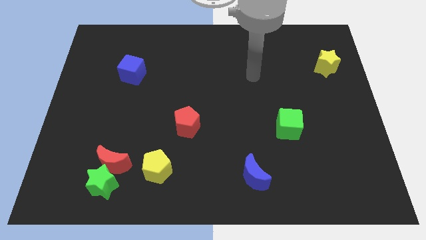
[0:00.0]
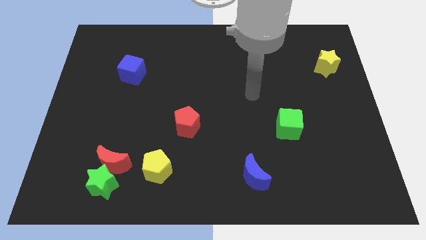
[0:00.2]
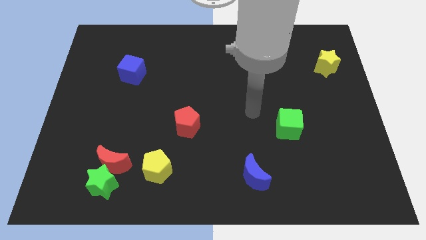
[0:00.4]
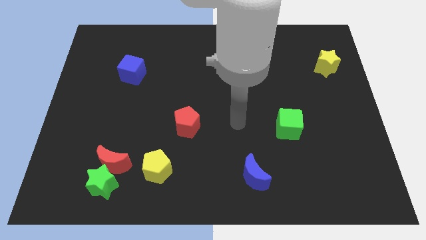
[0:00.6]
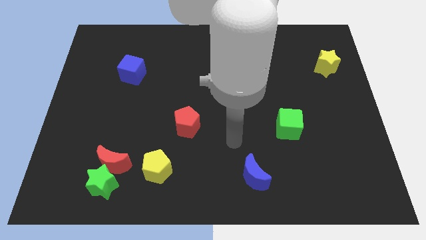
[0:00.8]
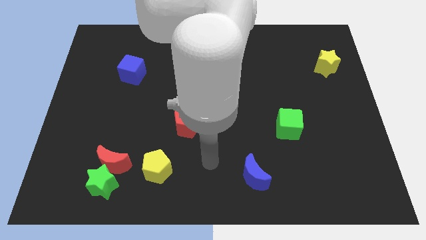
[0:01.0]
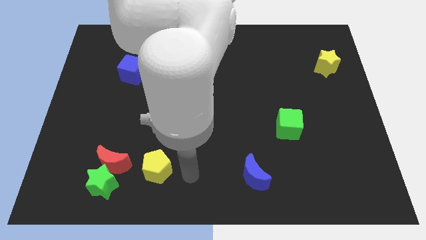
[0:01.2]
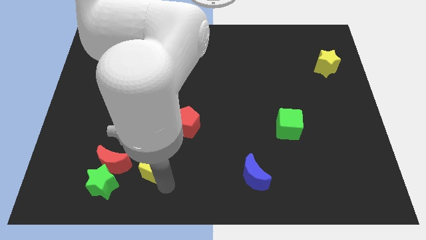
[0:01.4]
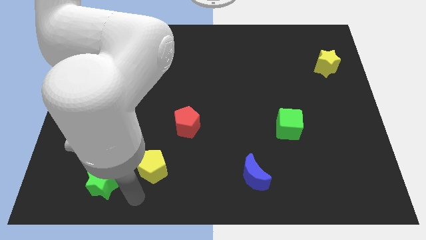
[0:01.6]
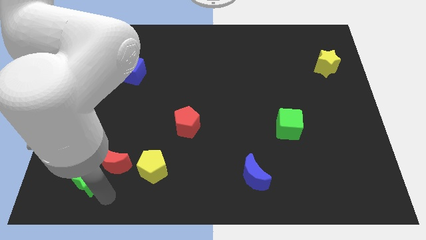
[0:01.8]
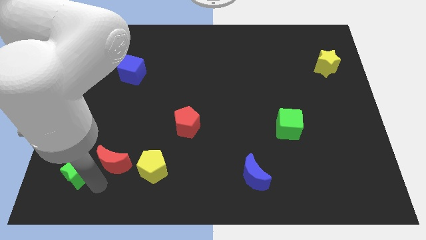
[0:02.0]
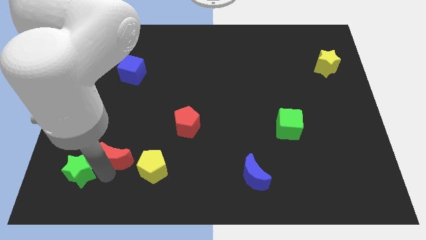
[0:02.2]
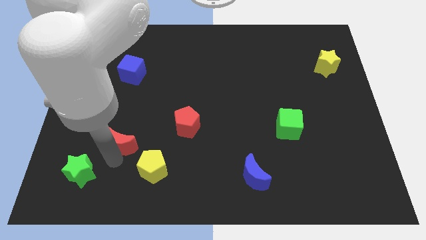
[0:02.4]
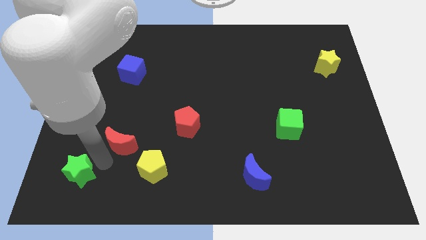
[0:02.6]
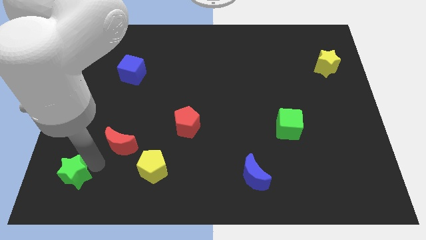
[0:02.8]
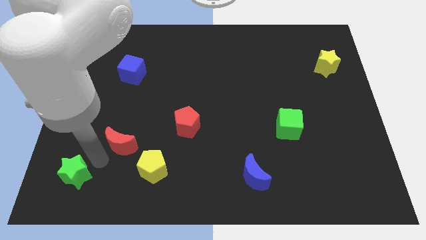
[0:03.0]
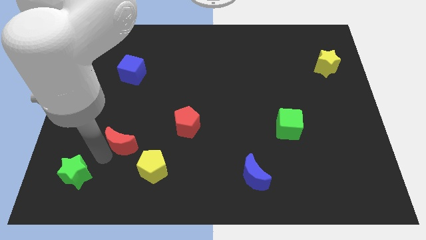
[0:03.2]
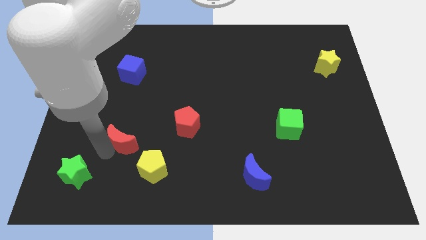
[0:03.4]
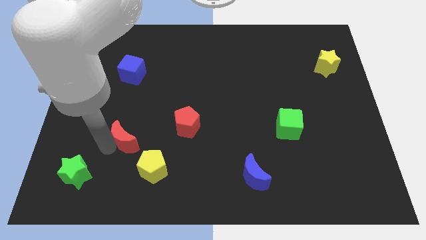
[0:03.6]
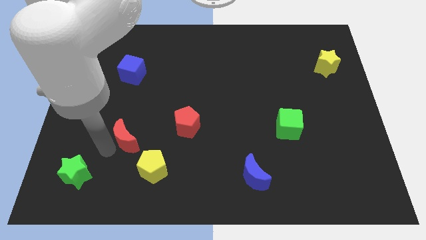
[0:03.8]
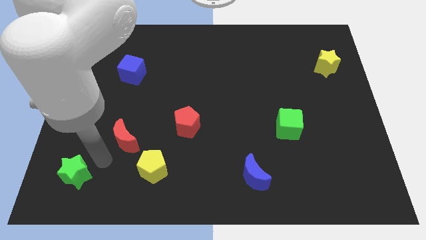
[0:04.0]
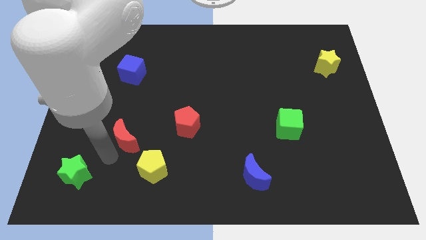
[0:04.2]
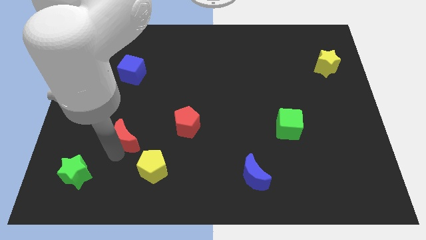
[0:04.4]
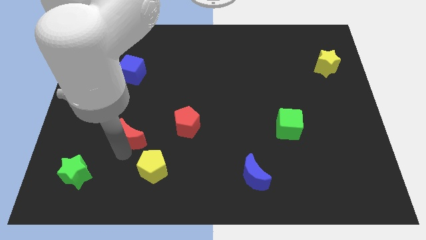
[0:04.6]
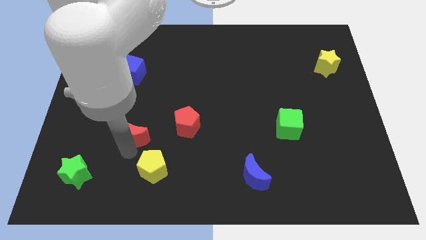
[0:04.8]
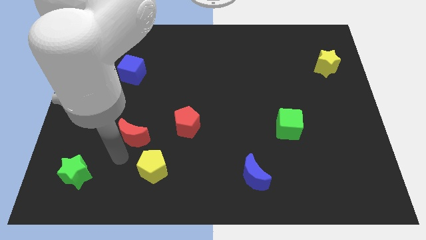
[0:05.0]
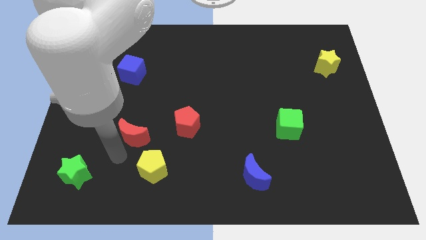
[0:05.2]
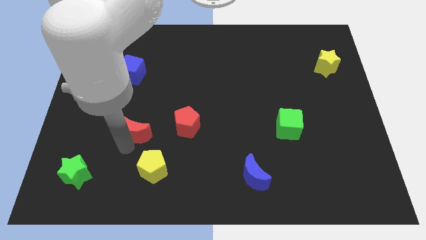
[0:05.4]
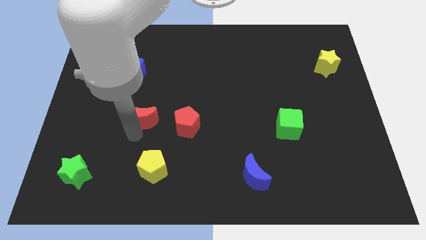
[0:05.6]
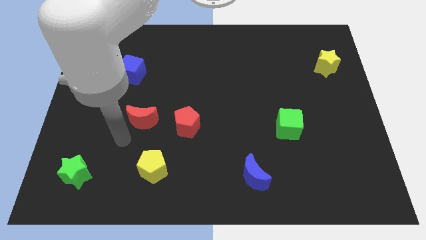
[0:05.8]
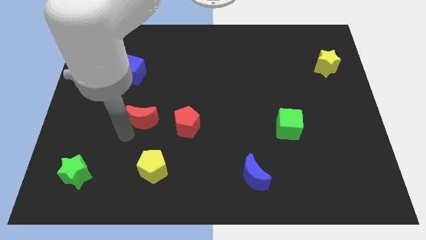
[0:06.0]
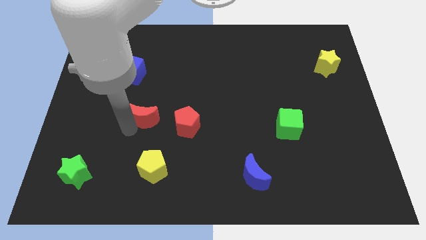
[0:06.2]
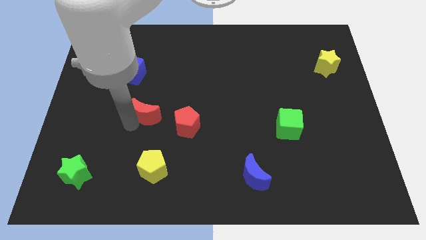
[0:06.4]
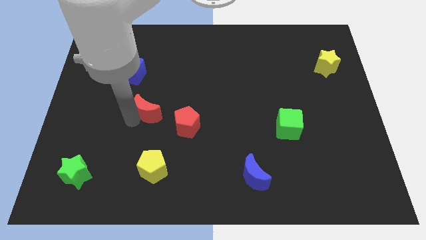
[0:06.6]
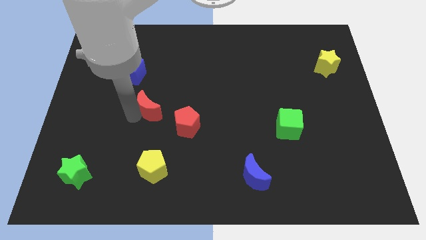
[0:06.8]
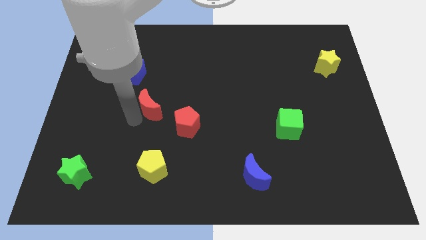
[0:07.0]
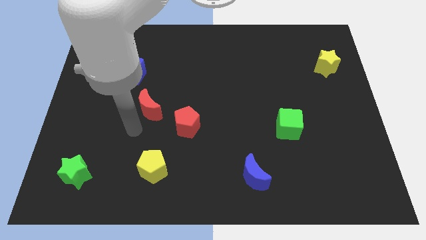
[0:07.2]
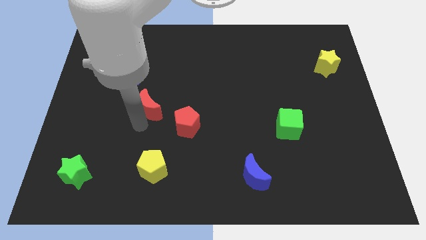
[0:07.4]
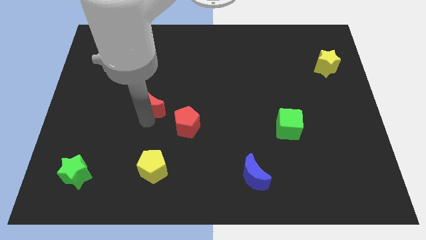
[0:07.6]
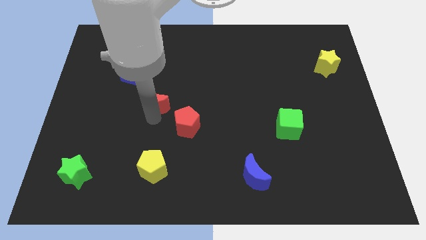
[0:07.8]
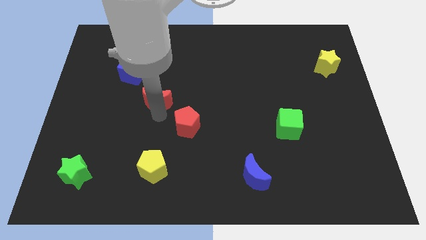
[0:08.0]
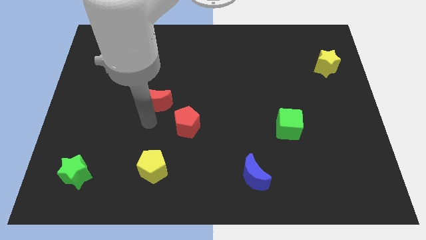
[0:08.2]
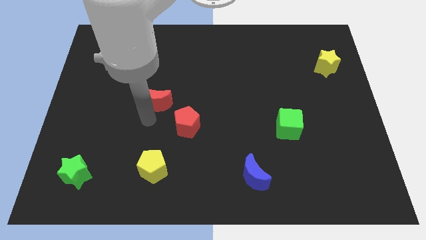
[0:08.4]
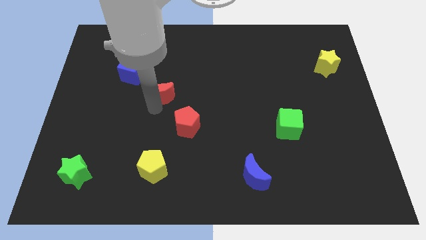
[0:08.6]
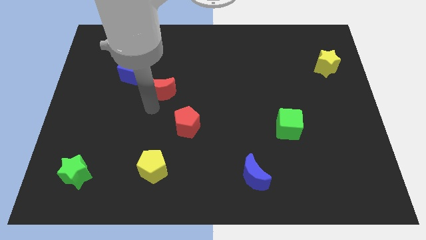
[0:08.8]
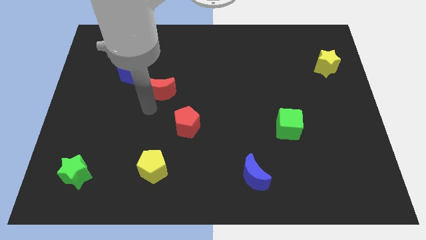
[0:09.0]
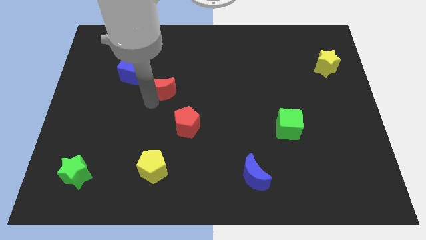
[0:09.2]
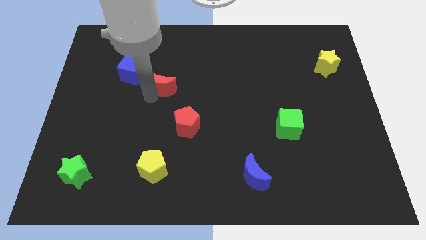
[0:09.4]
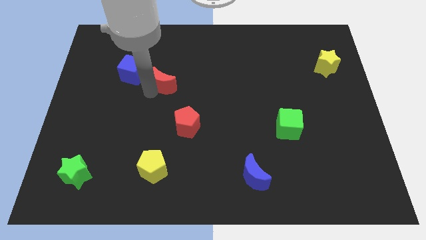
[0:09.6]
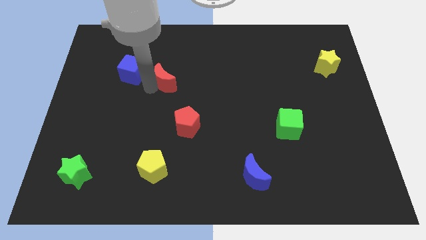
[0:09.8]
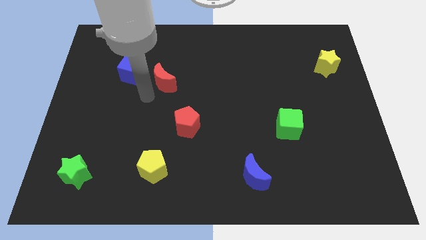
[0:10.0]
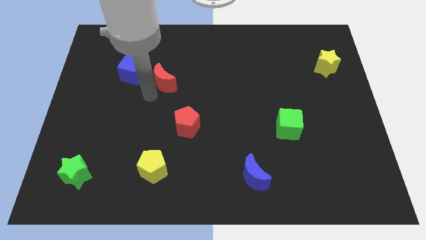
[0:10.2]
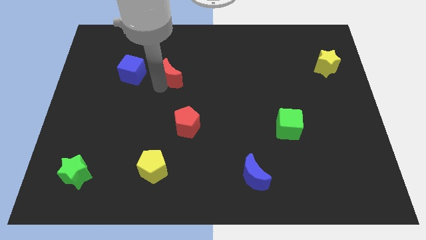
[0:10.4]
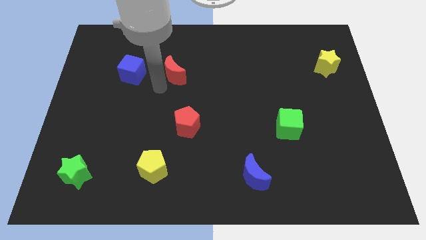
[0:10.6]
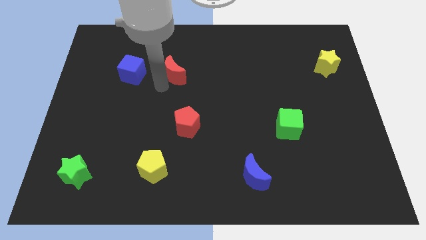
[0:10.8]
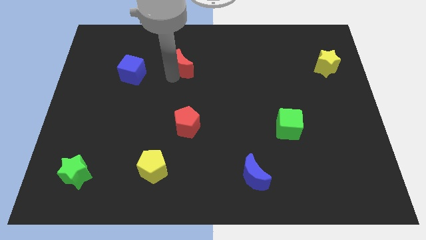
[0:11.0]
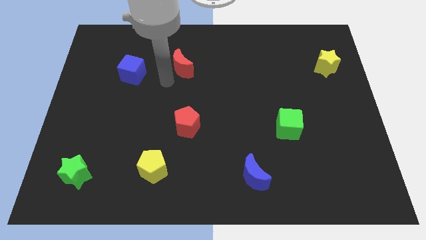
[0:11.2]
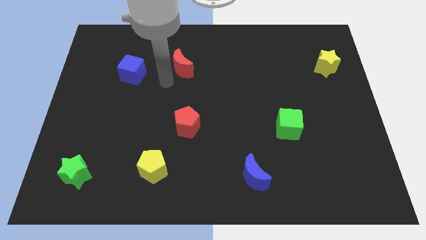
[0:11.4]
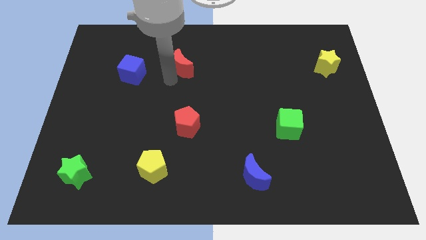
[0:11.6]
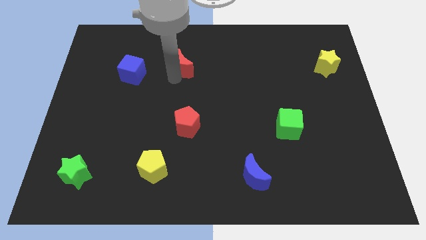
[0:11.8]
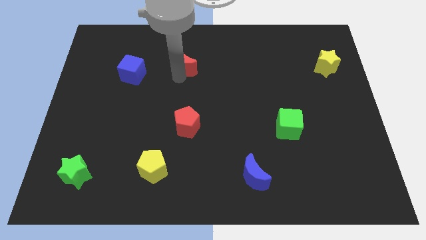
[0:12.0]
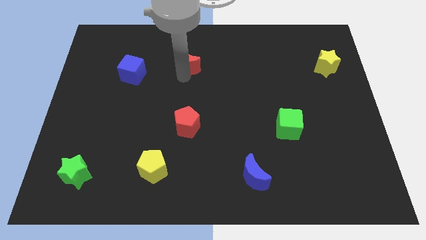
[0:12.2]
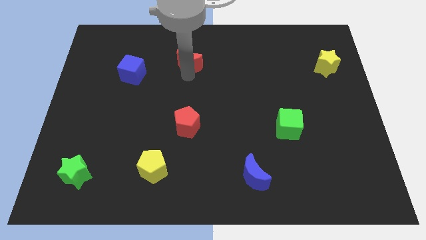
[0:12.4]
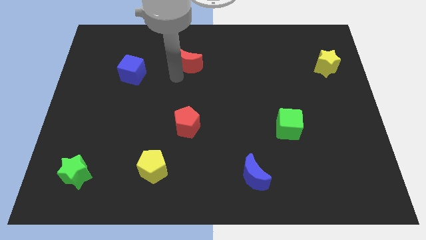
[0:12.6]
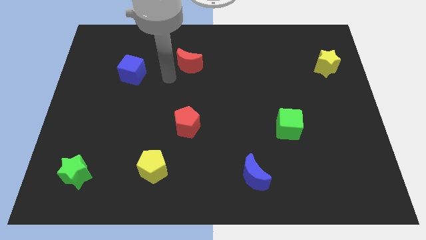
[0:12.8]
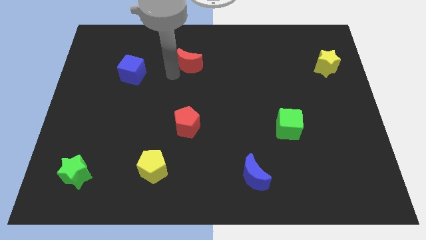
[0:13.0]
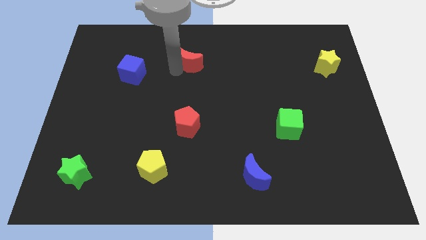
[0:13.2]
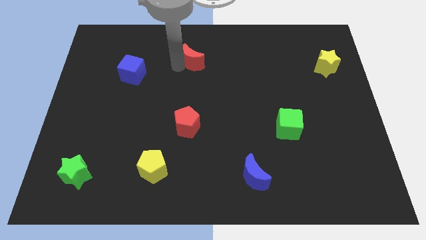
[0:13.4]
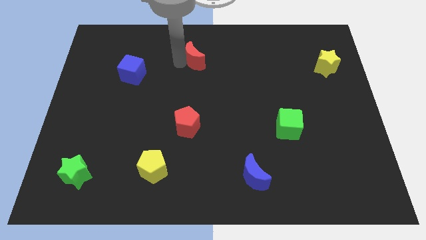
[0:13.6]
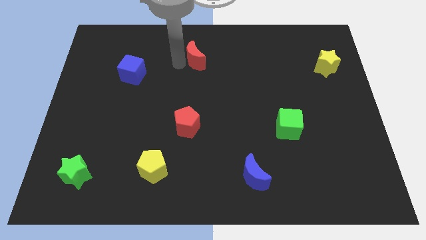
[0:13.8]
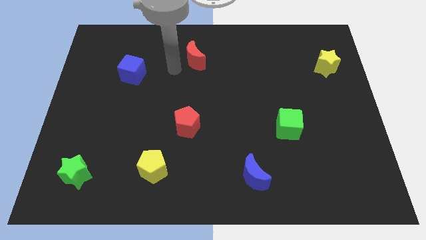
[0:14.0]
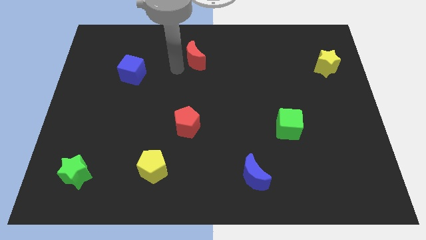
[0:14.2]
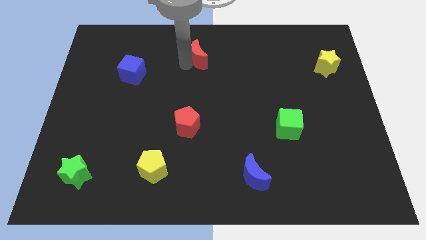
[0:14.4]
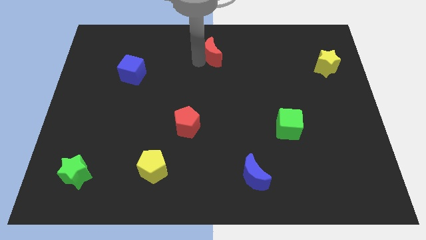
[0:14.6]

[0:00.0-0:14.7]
move the red moon to the towards your base
